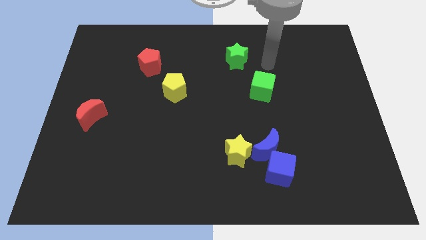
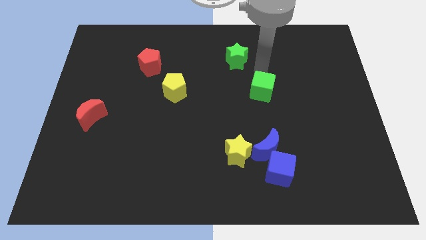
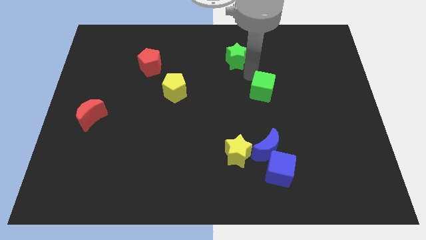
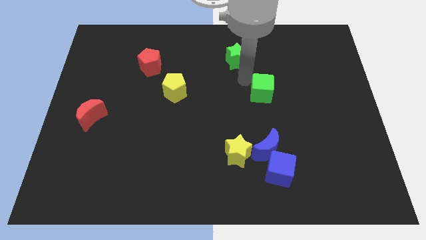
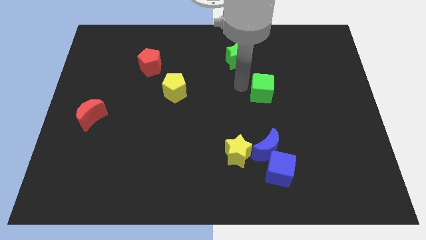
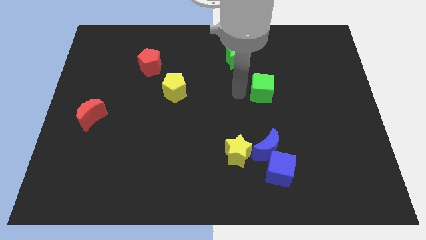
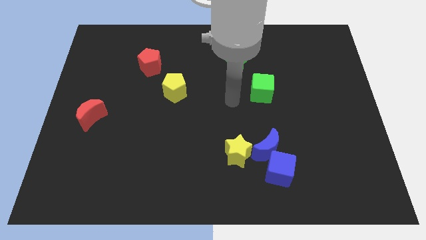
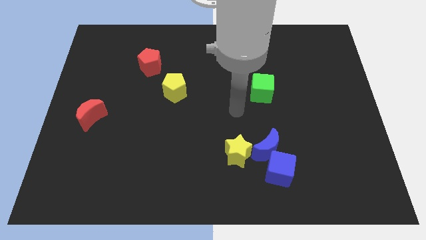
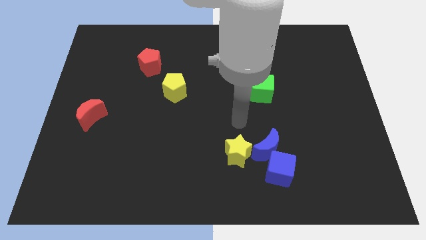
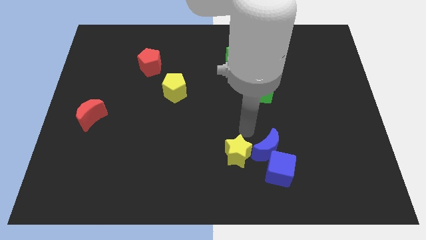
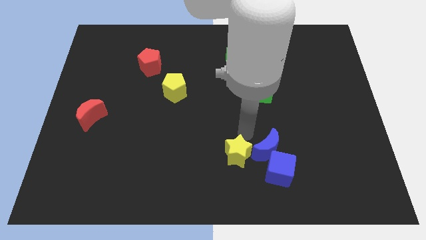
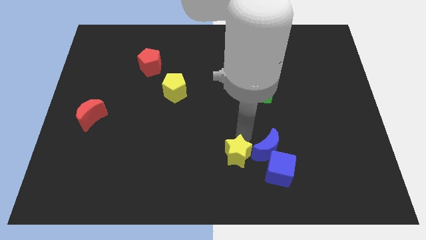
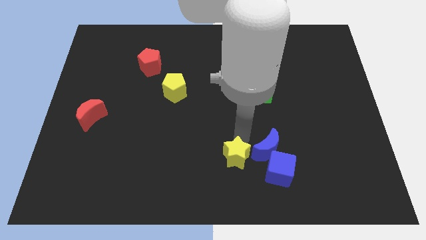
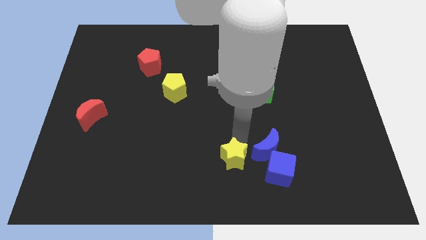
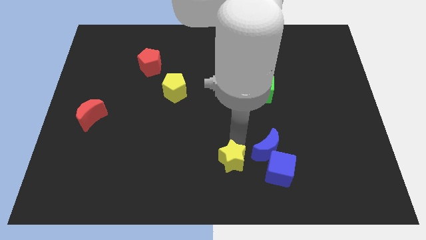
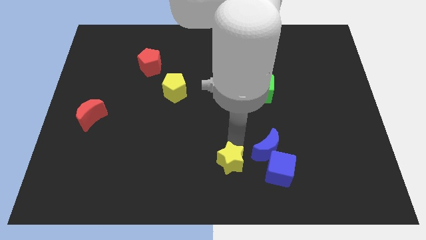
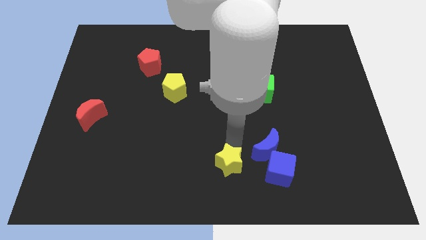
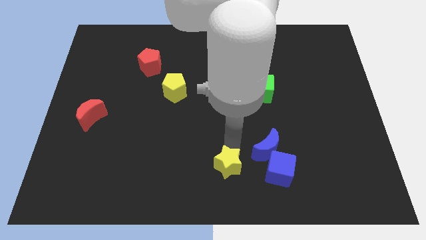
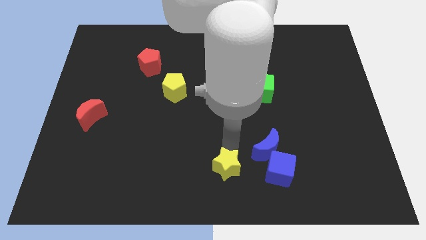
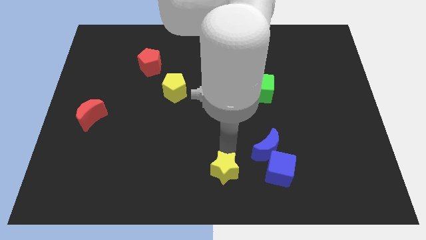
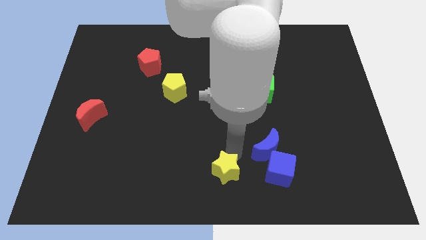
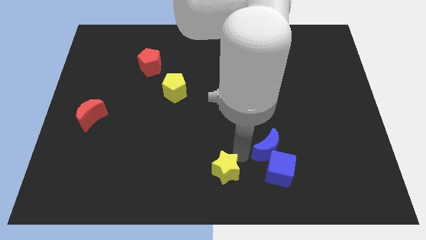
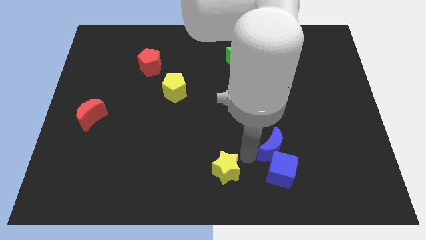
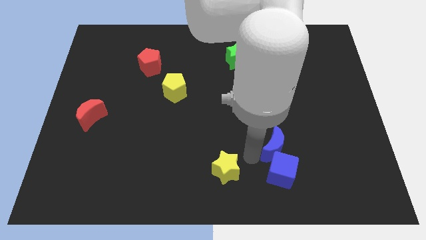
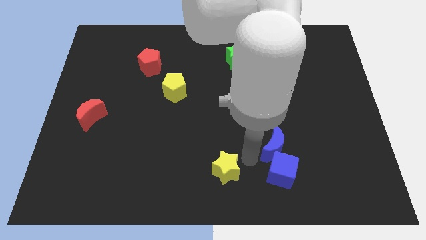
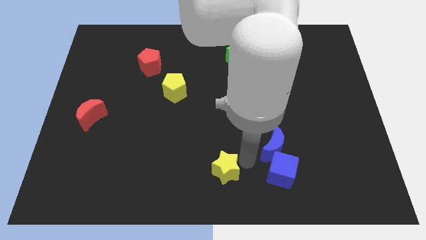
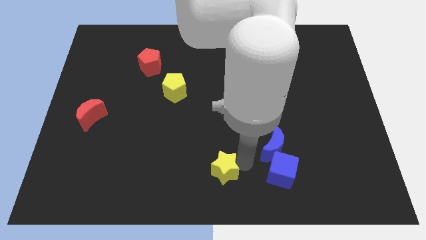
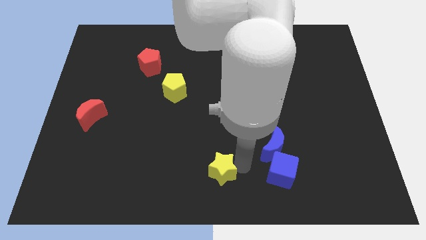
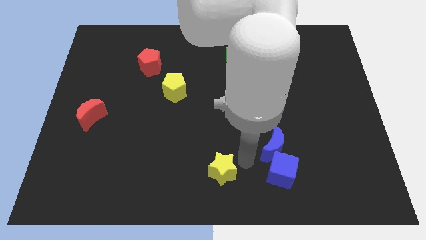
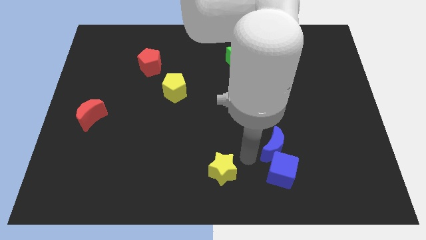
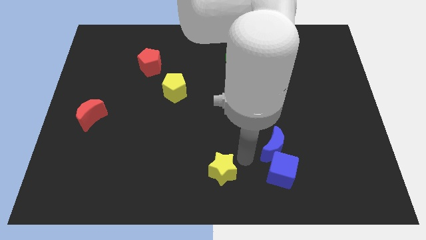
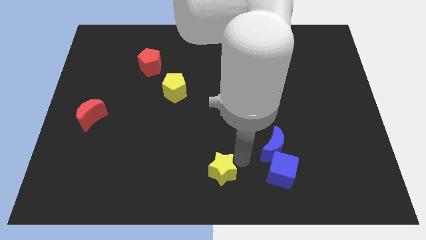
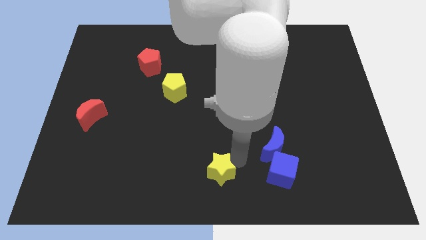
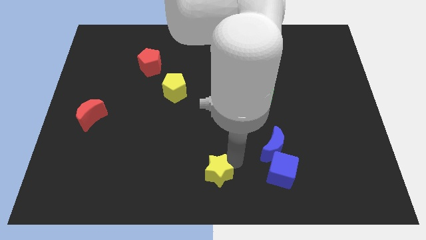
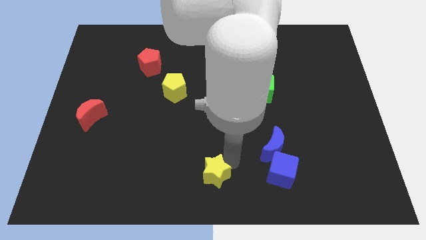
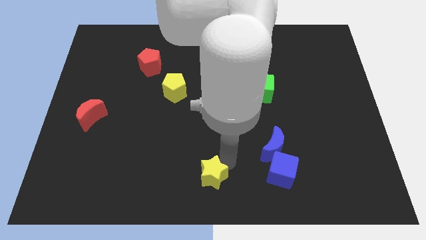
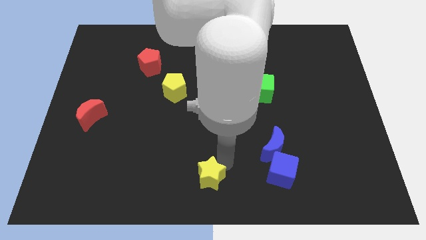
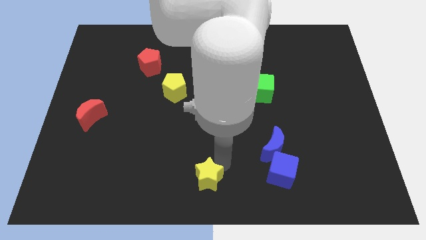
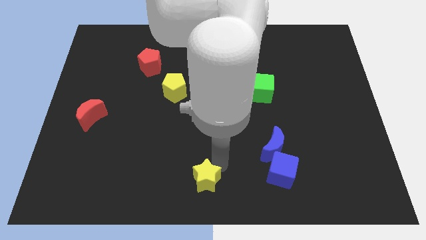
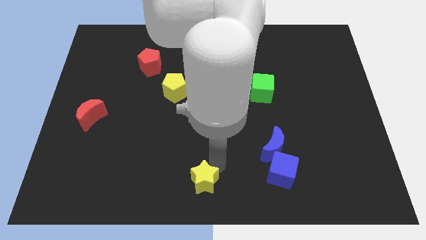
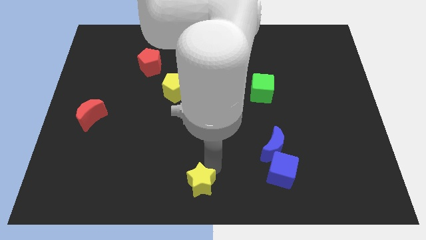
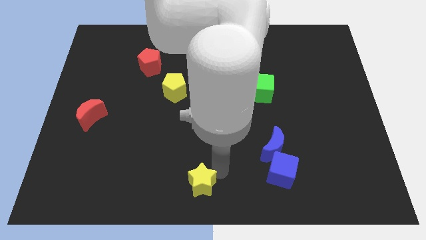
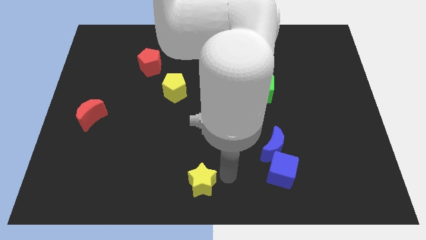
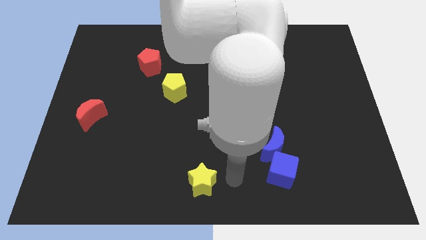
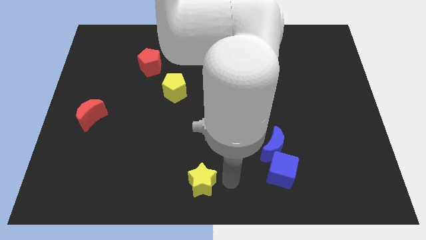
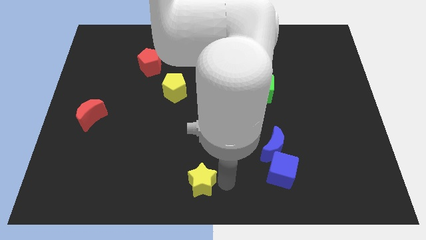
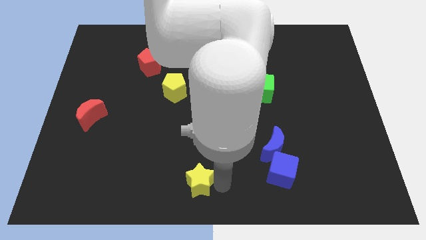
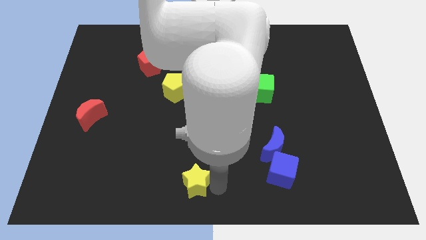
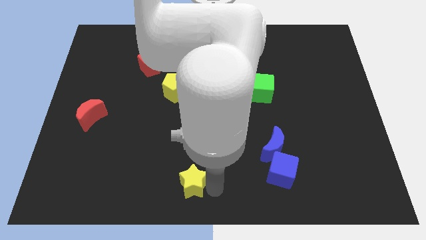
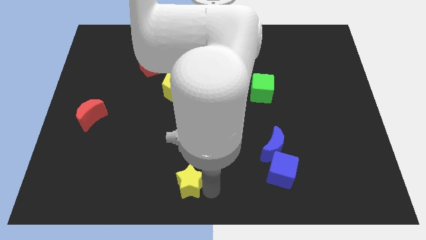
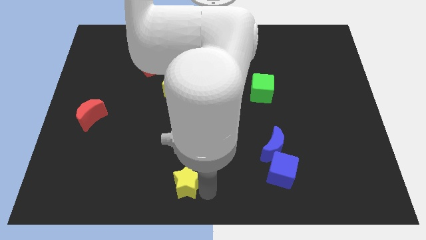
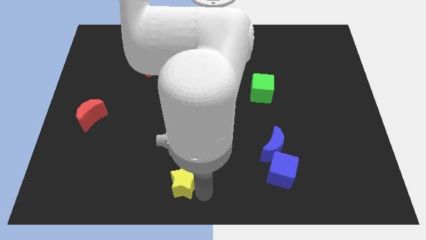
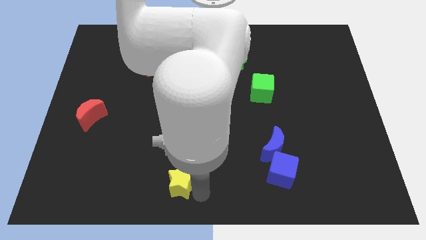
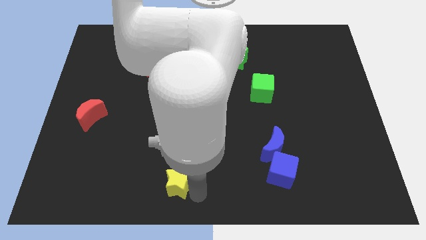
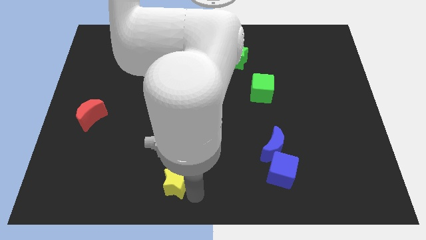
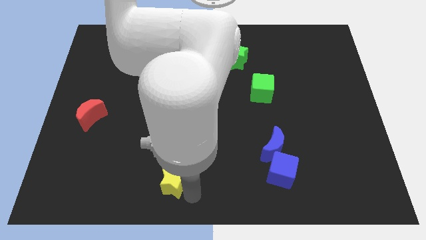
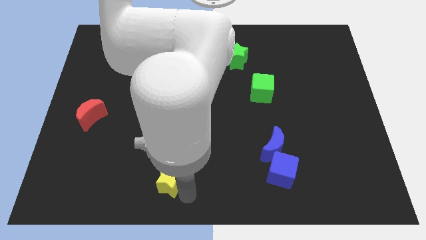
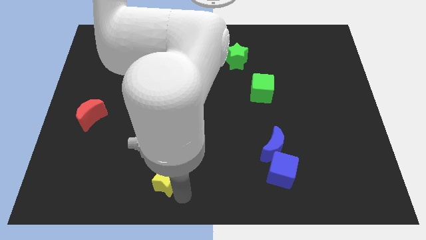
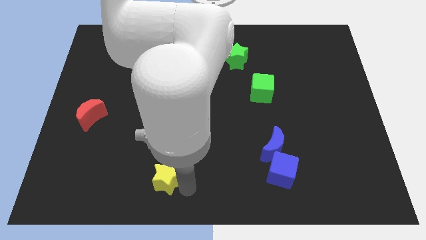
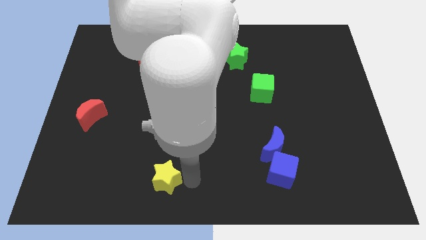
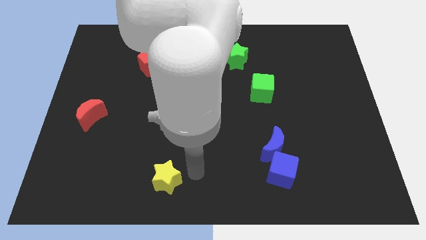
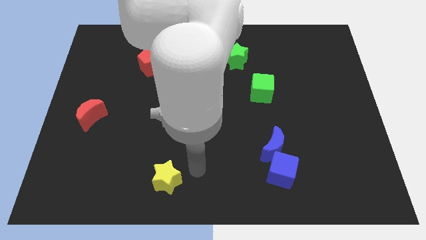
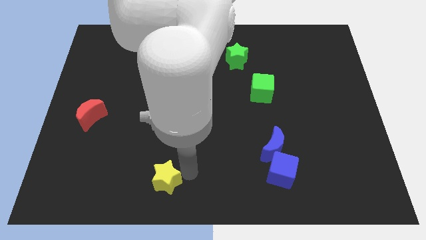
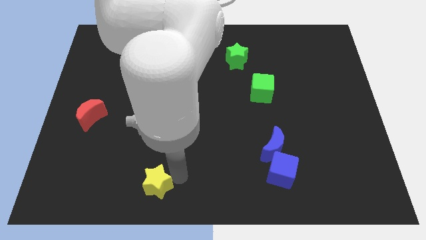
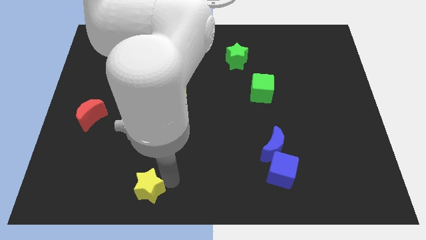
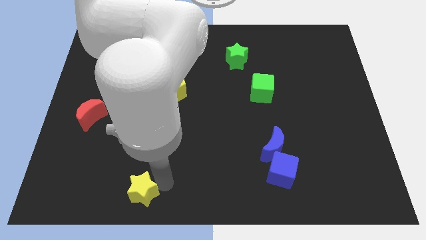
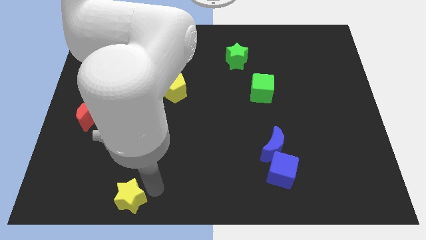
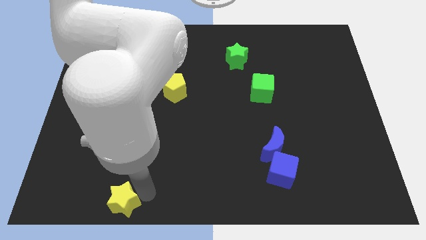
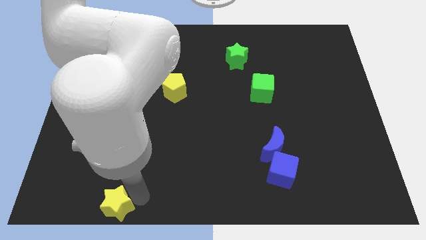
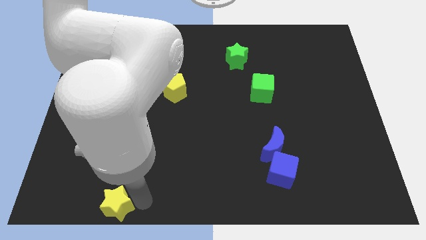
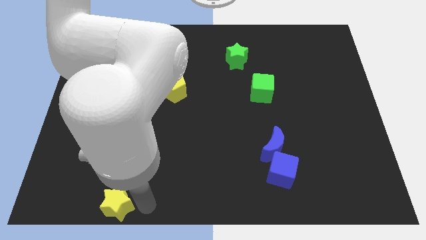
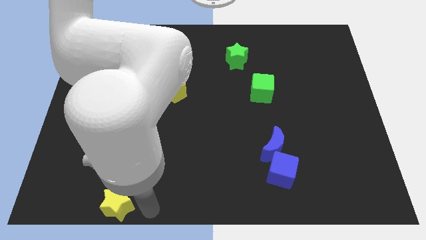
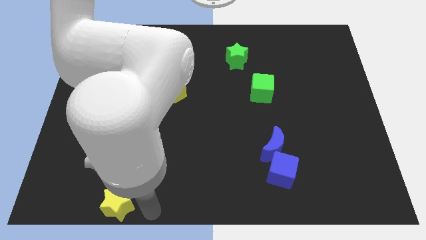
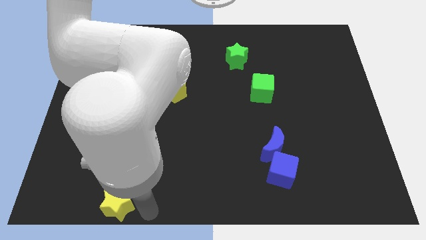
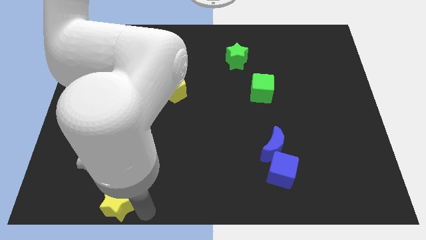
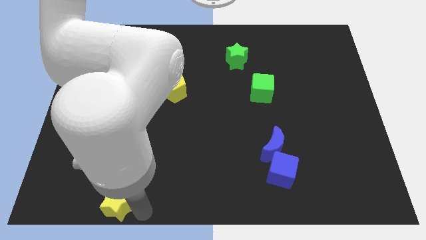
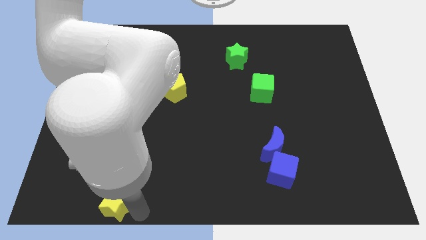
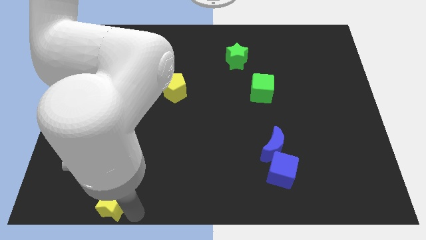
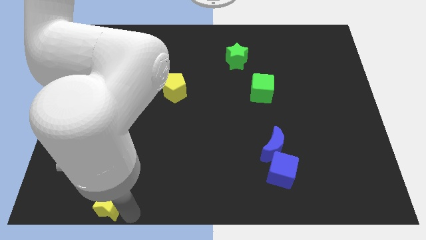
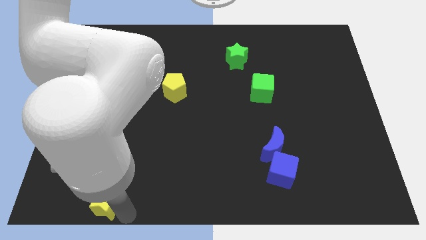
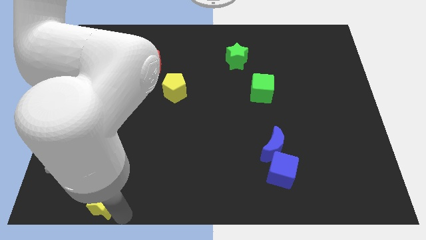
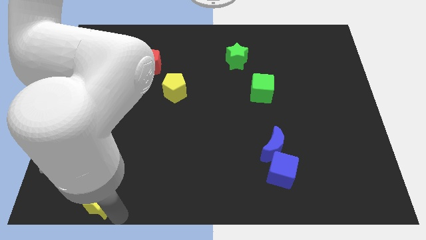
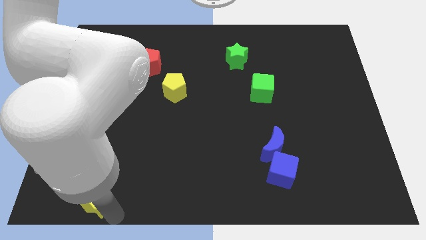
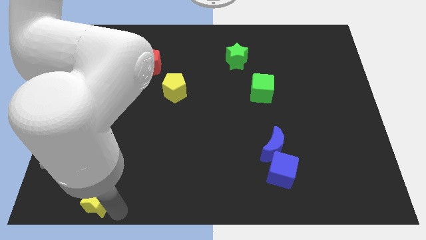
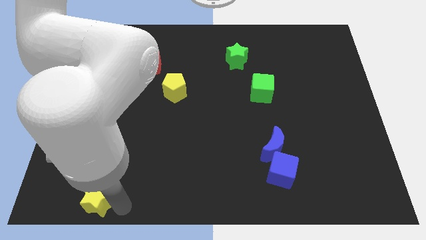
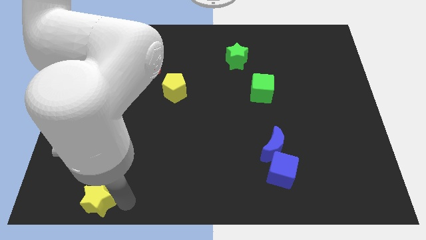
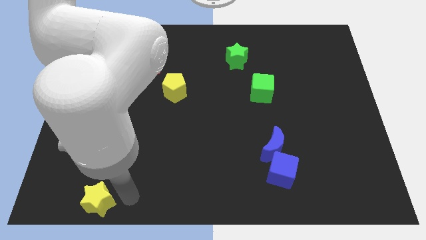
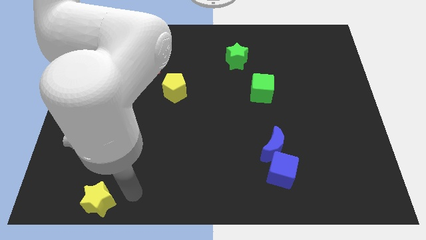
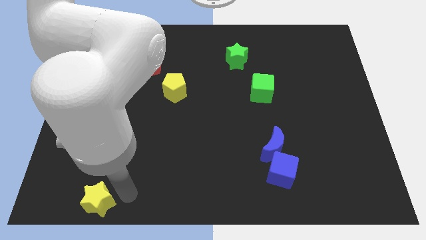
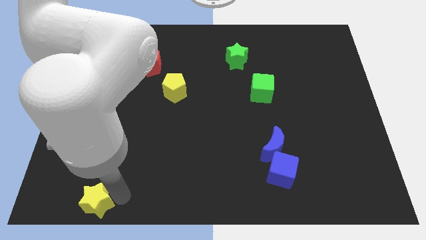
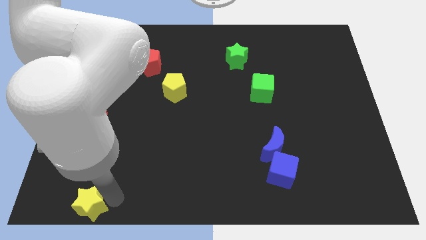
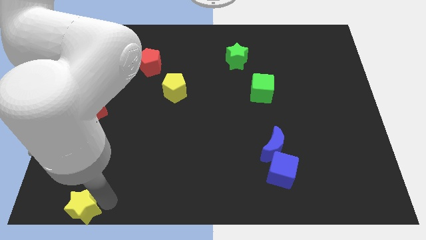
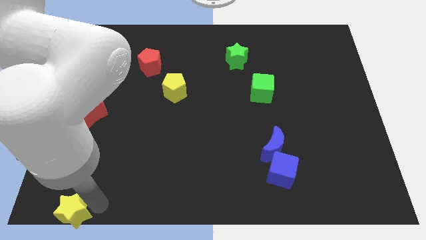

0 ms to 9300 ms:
put the yellow star to the lower left corner
